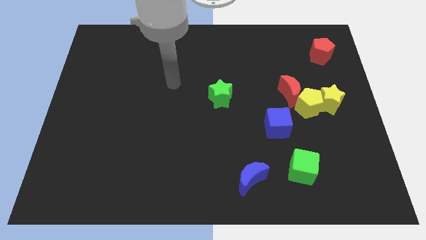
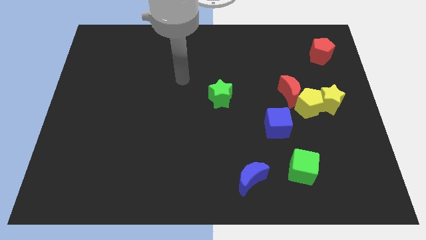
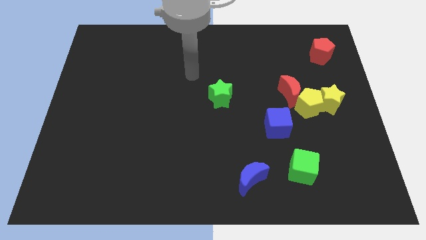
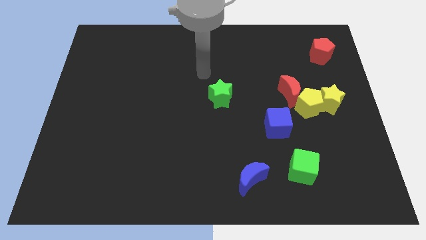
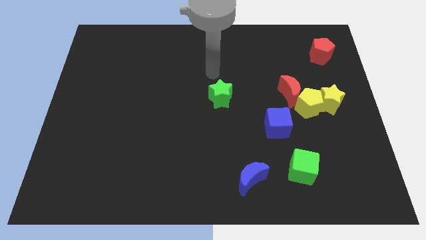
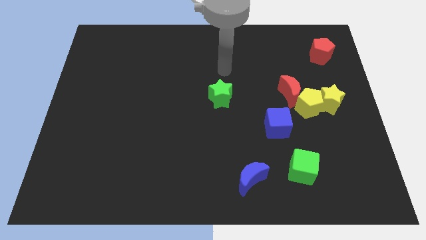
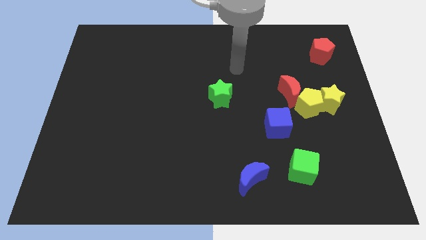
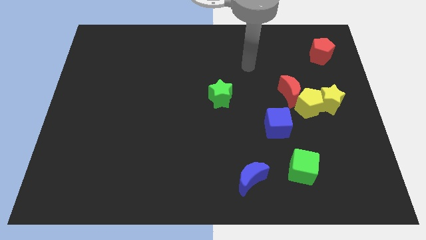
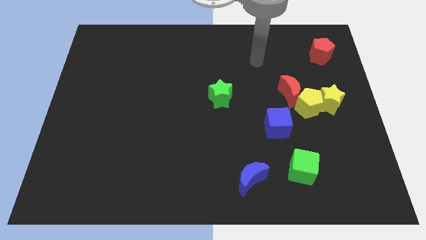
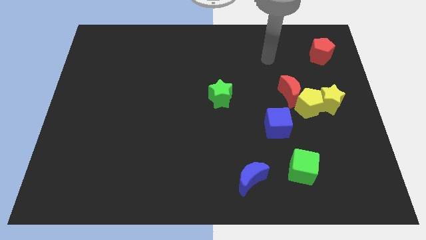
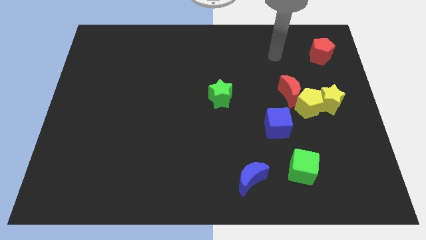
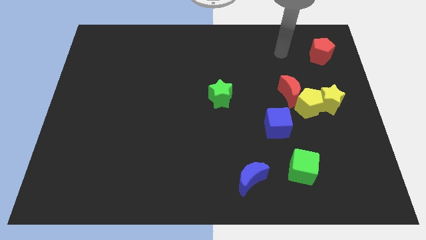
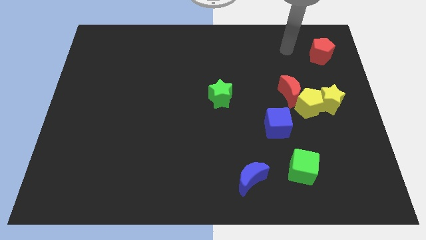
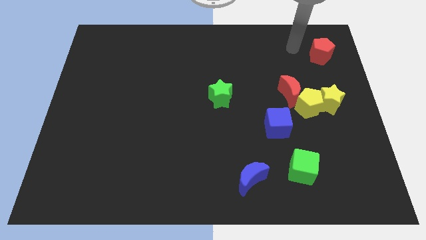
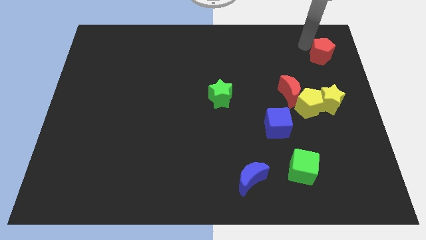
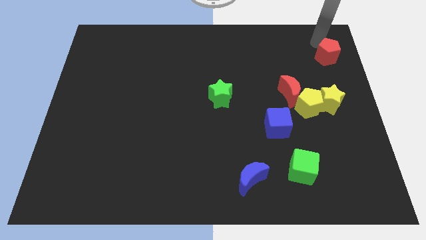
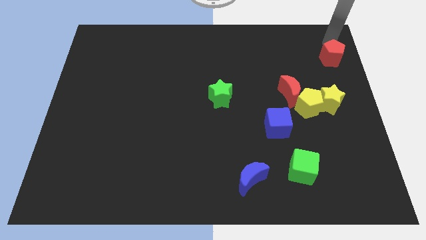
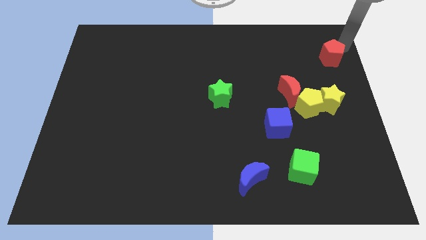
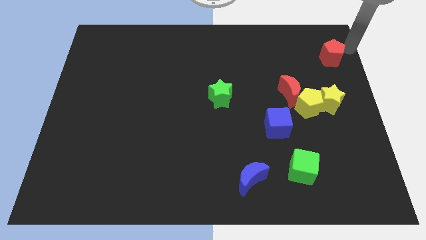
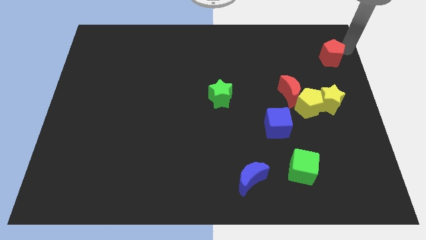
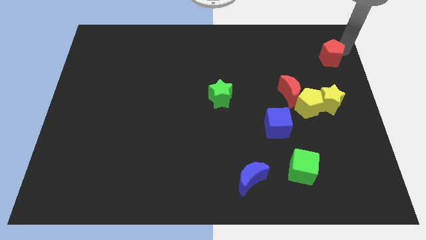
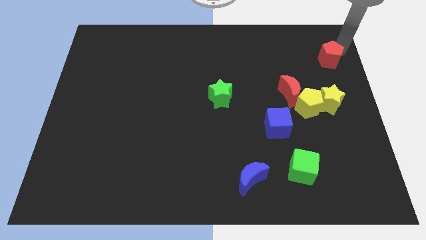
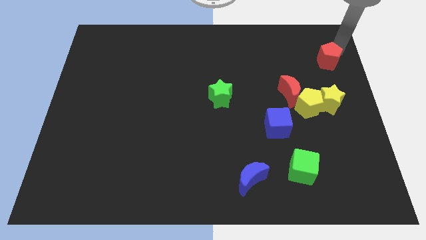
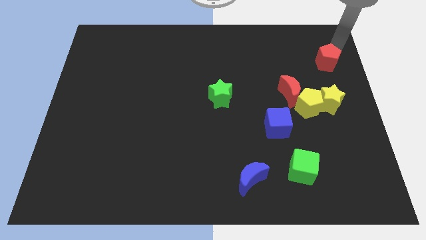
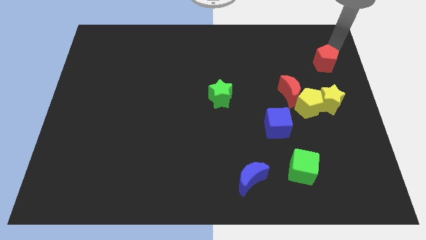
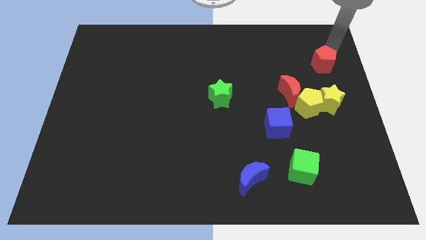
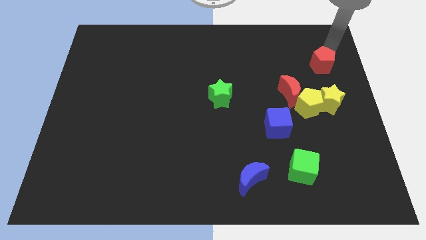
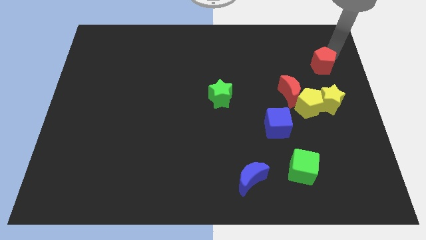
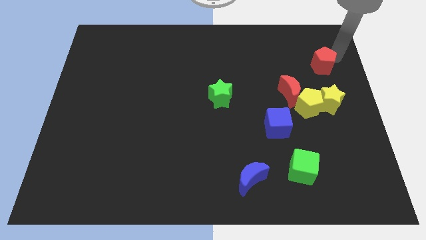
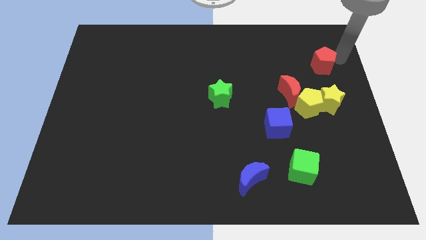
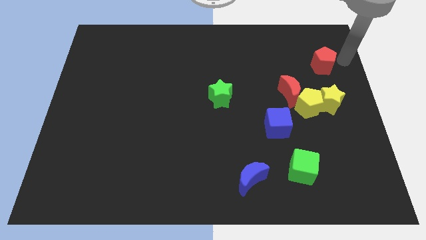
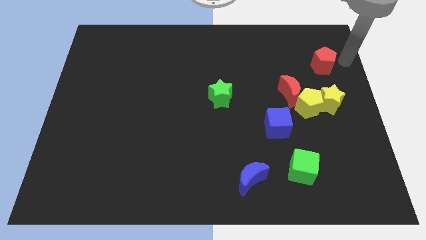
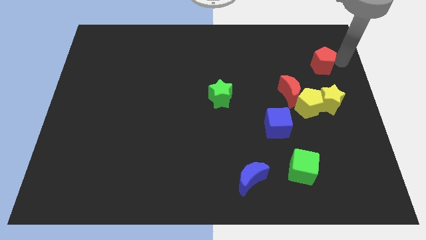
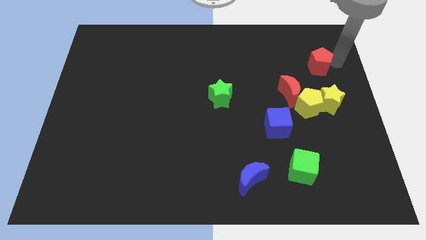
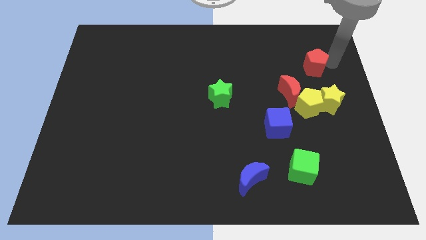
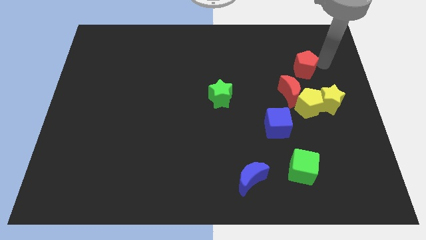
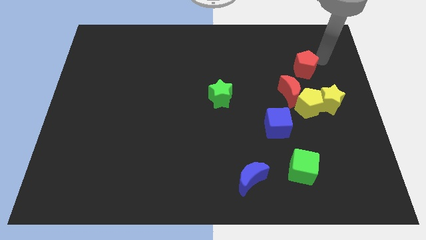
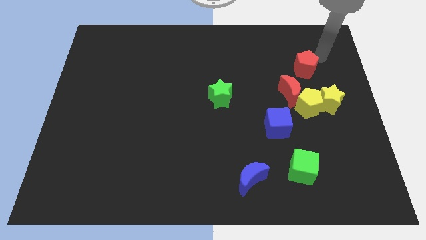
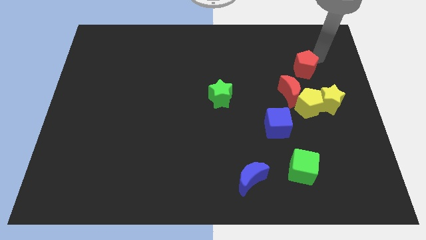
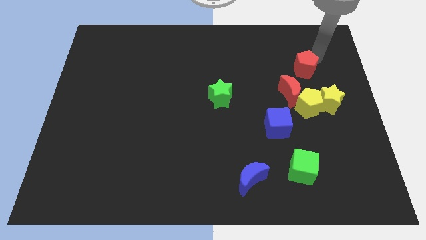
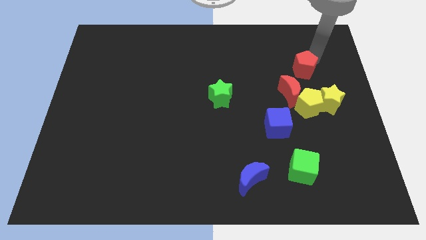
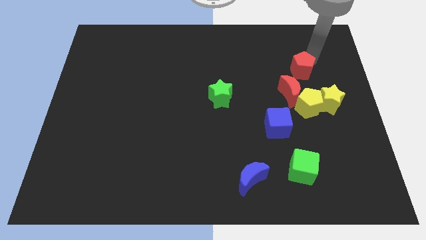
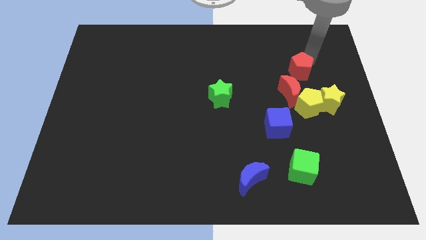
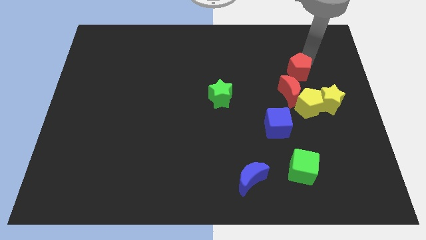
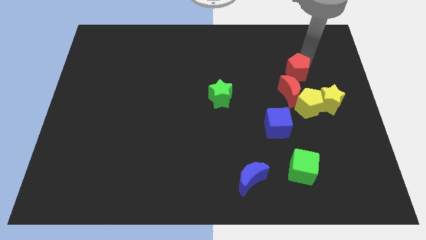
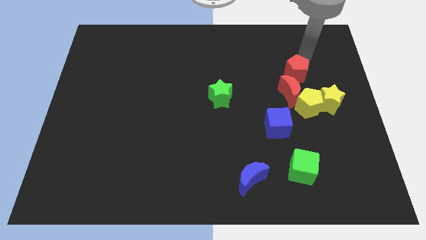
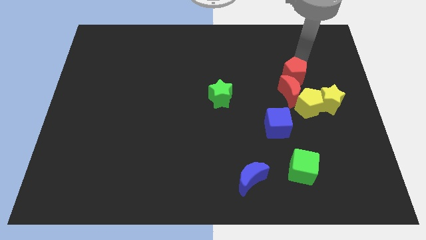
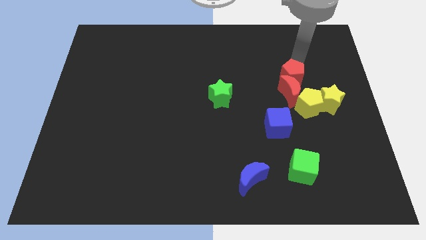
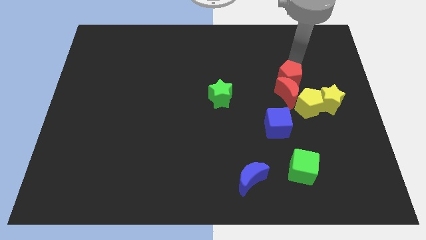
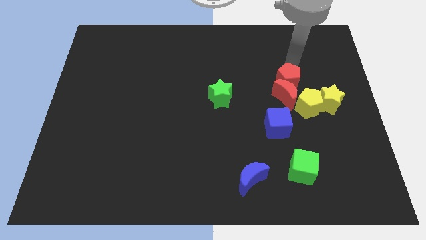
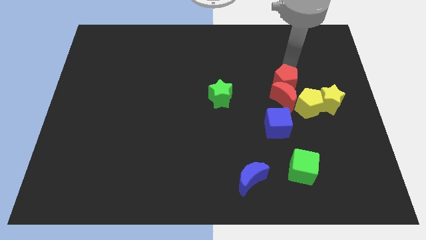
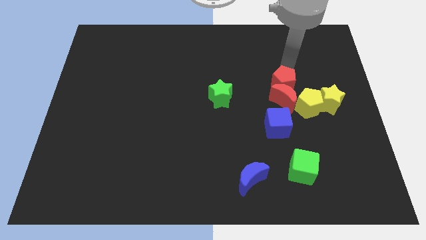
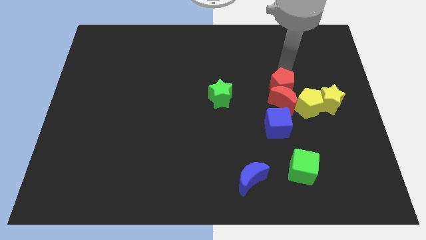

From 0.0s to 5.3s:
slide the red pentagon right of the green star

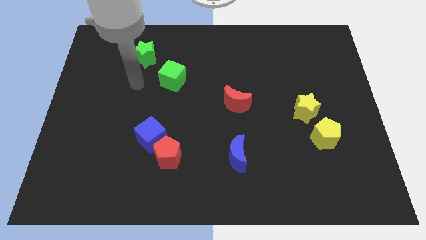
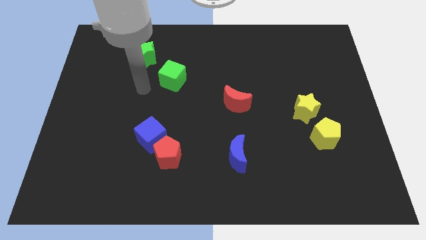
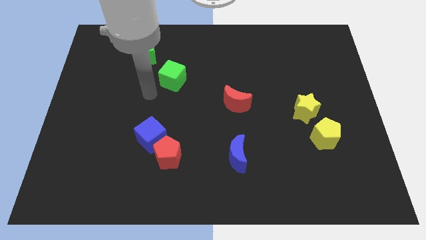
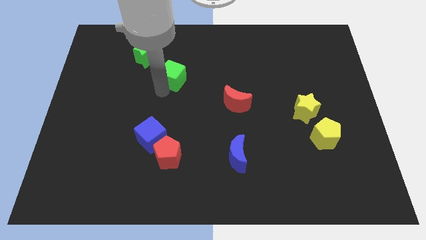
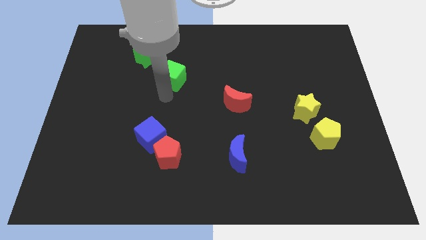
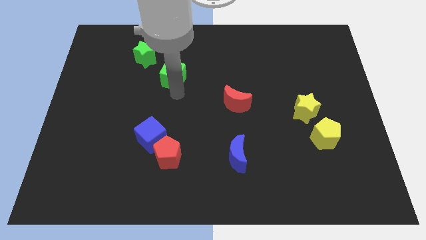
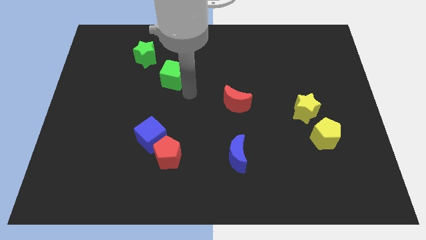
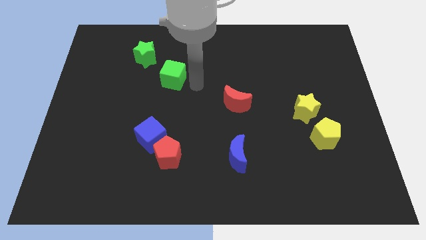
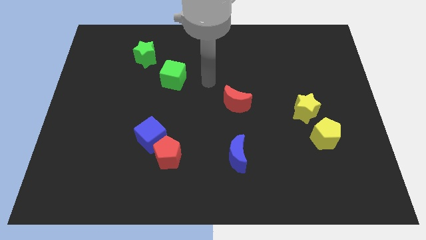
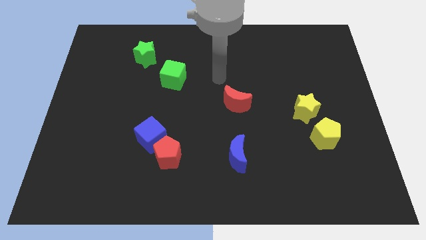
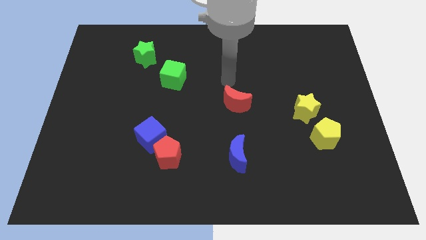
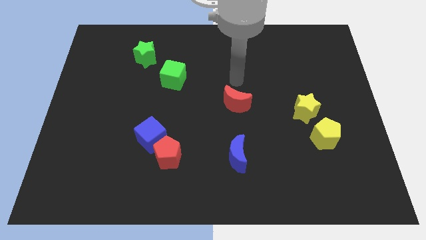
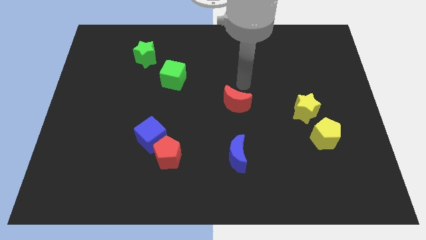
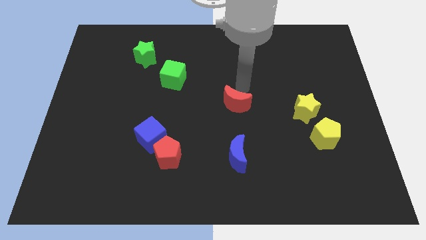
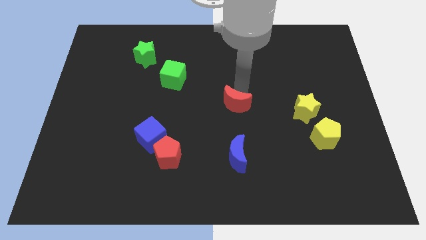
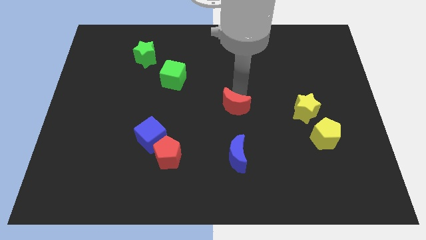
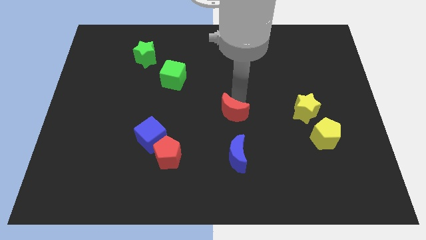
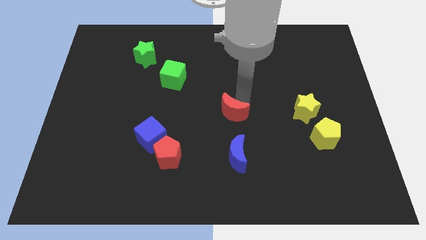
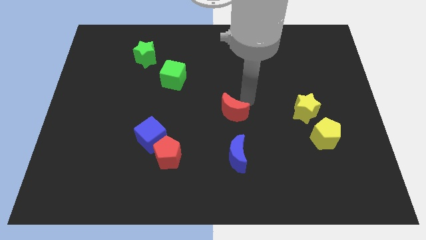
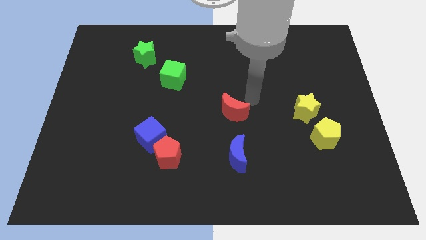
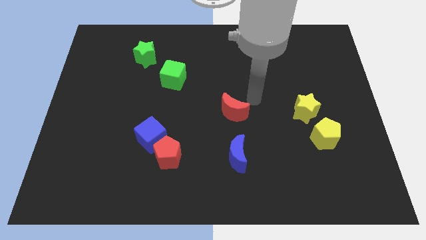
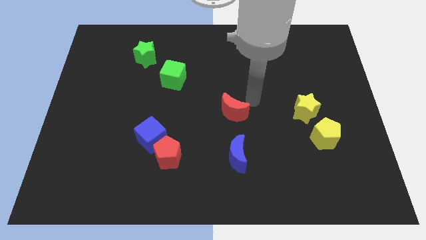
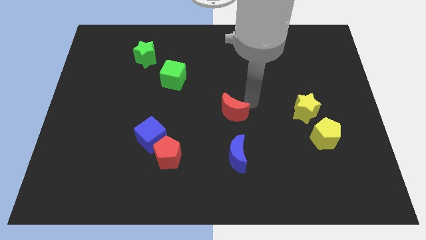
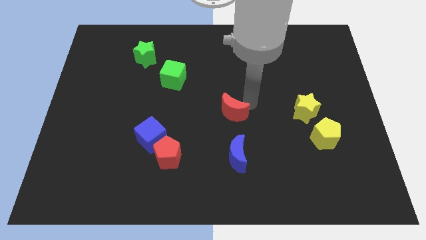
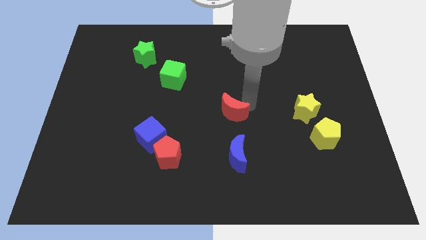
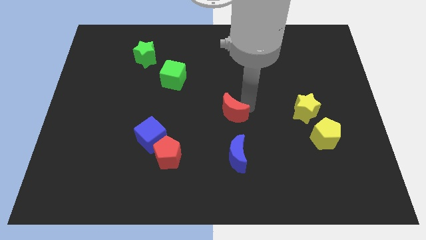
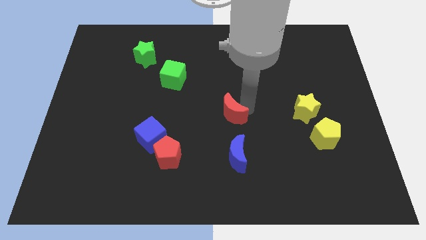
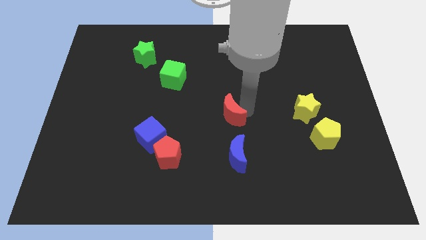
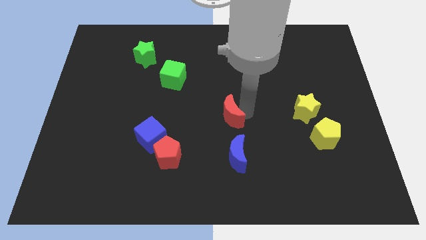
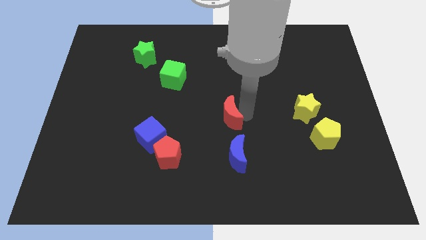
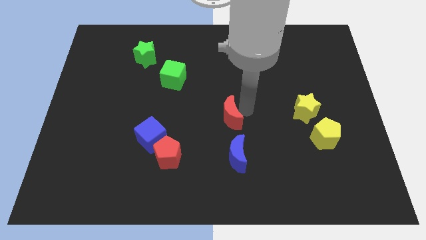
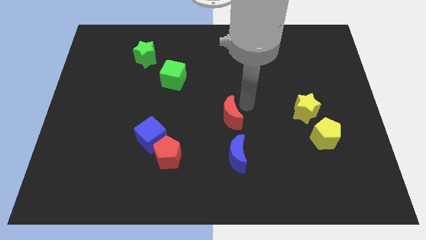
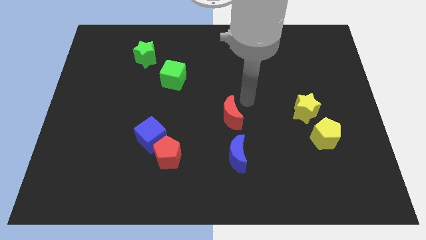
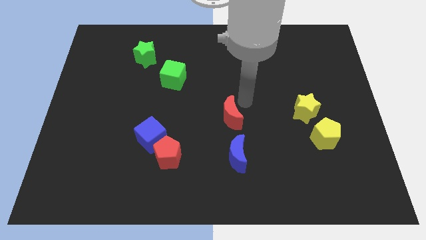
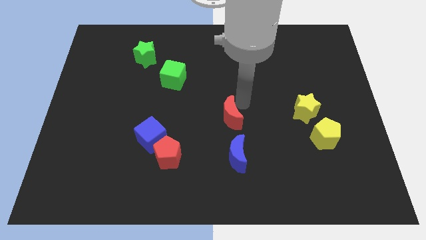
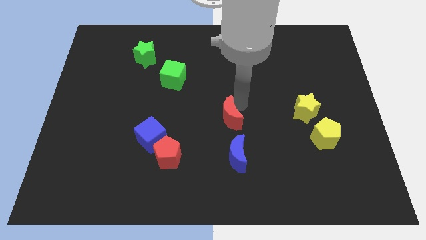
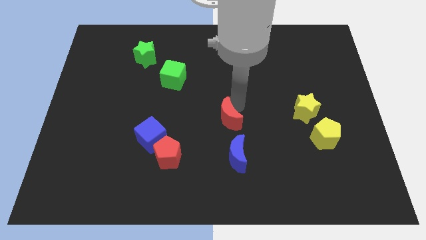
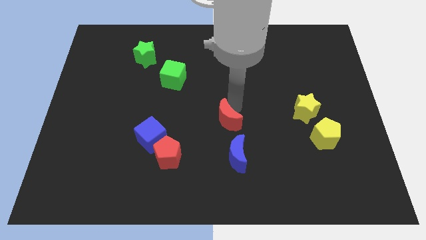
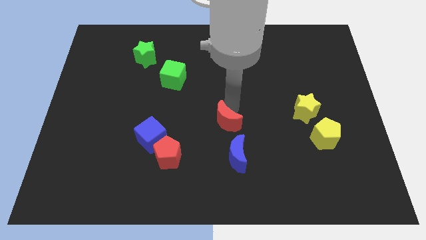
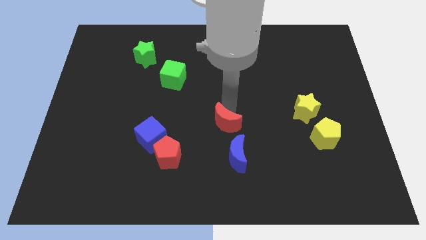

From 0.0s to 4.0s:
push the red moon to the top left side of the blue moon
